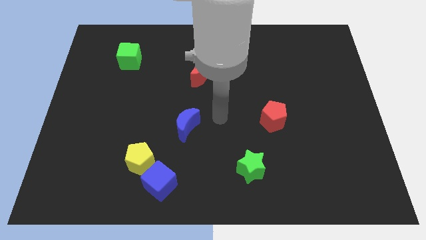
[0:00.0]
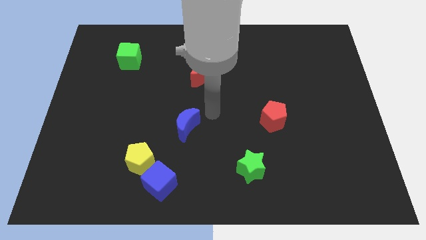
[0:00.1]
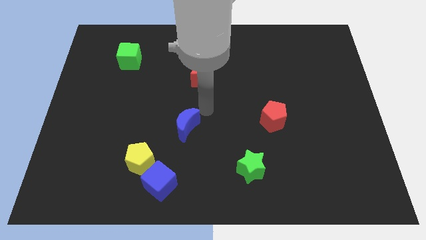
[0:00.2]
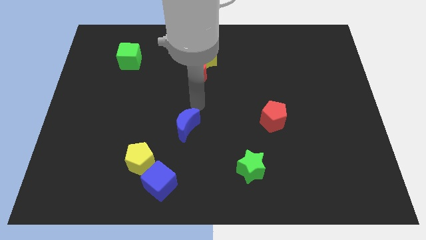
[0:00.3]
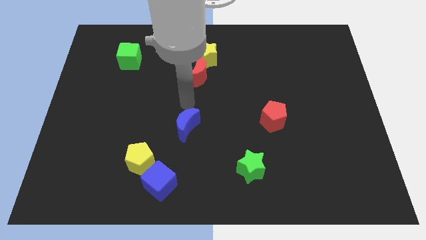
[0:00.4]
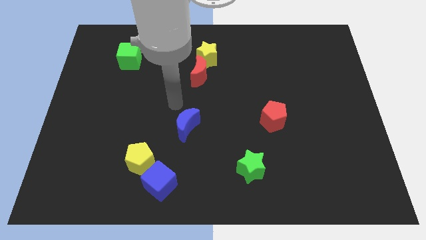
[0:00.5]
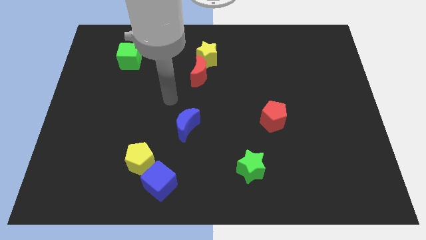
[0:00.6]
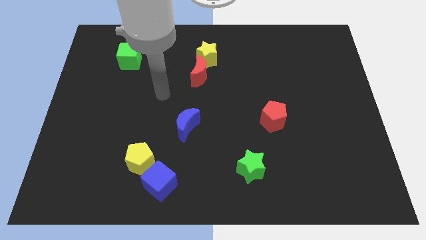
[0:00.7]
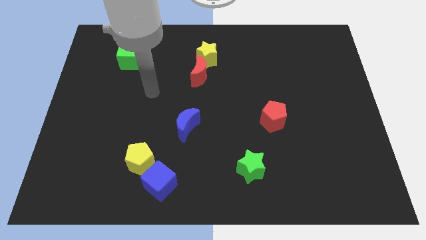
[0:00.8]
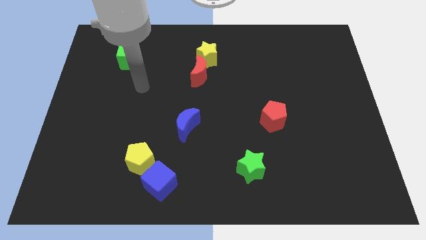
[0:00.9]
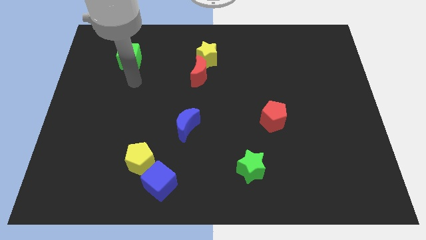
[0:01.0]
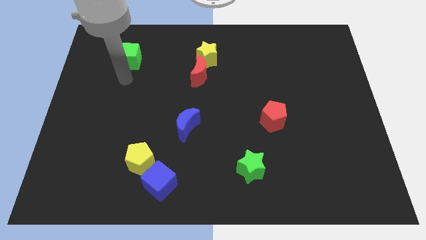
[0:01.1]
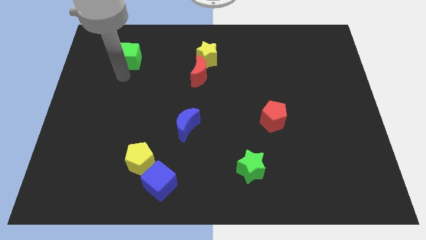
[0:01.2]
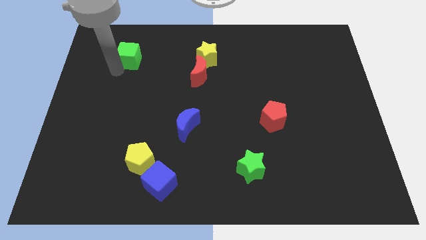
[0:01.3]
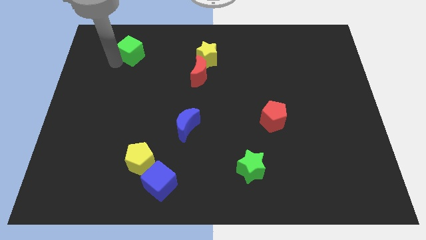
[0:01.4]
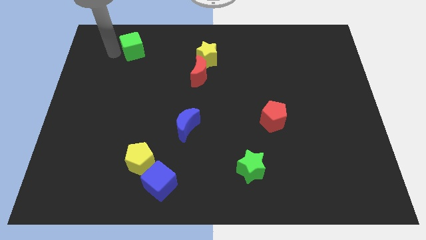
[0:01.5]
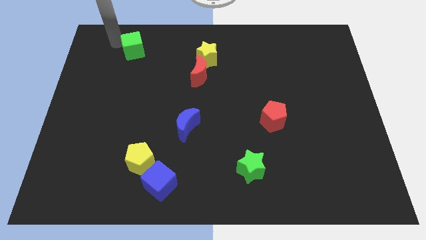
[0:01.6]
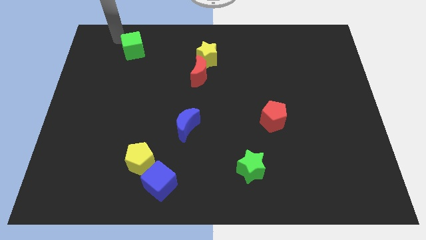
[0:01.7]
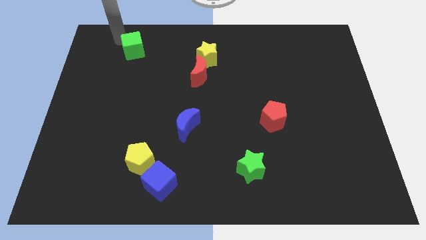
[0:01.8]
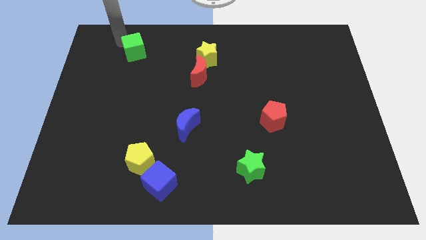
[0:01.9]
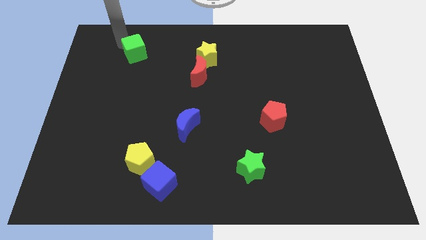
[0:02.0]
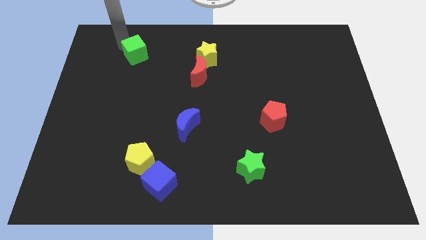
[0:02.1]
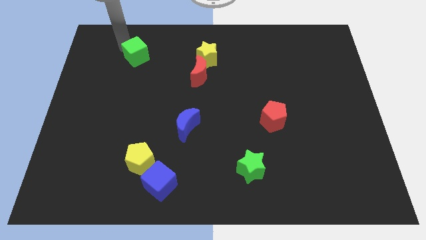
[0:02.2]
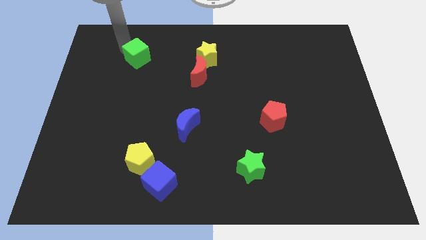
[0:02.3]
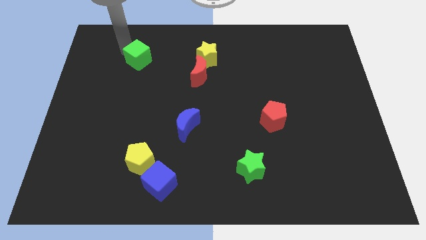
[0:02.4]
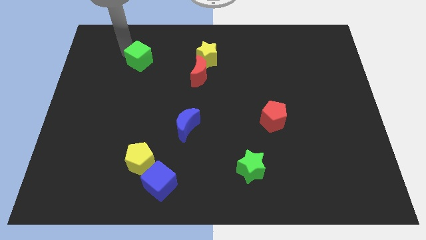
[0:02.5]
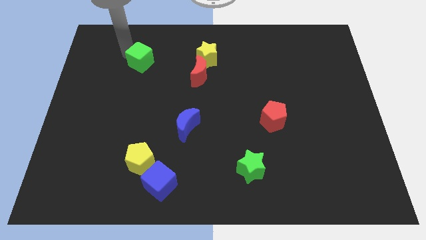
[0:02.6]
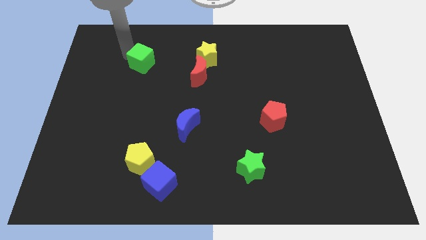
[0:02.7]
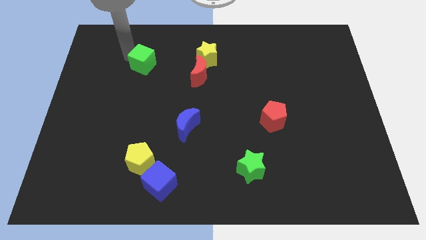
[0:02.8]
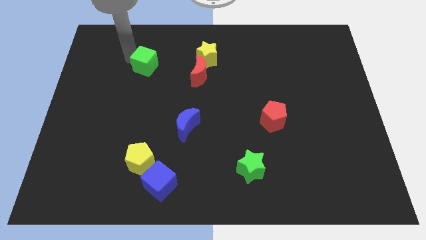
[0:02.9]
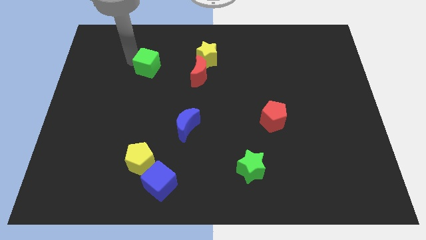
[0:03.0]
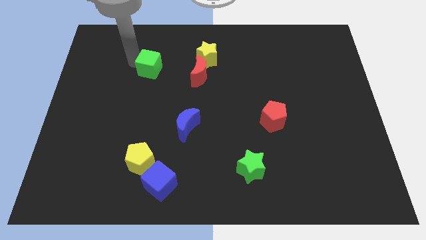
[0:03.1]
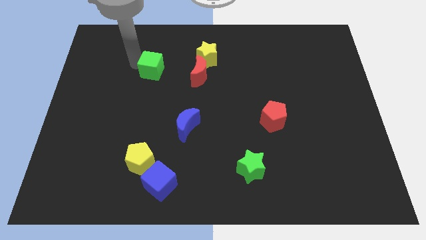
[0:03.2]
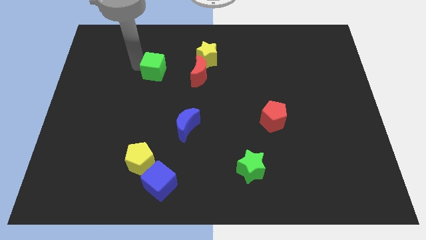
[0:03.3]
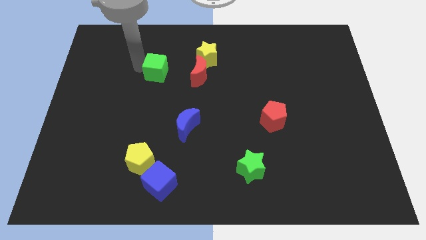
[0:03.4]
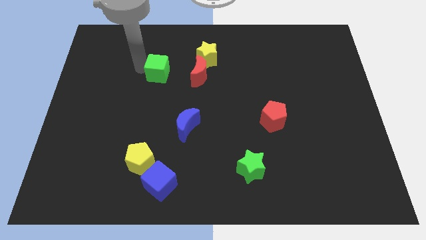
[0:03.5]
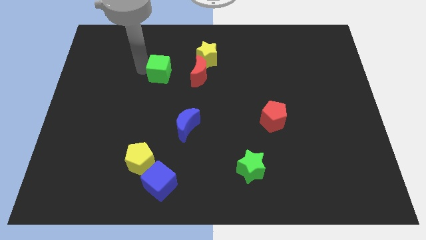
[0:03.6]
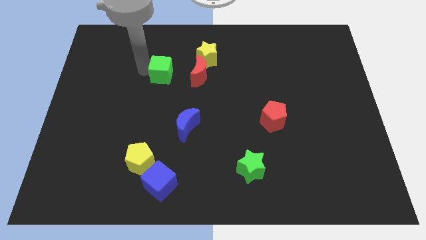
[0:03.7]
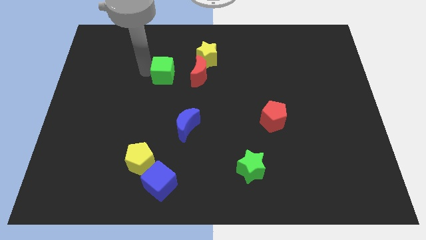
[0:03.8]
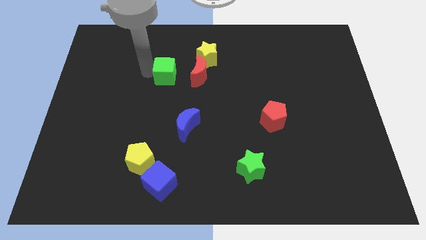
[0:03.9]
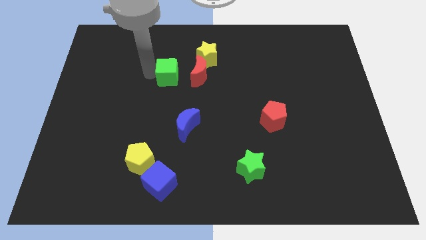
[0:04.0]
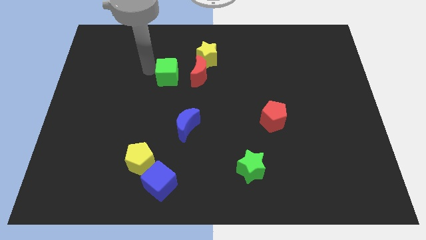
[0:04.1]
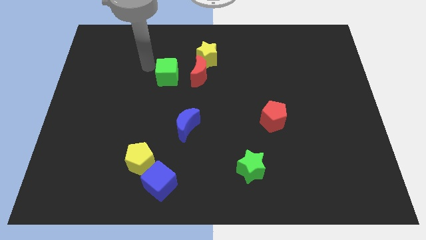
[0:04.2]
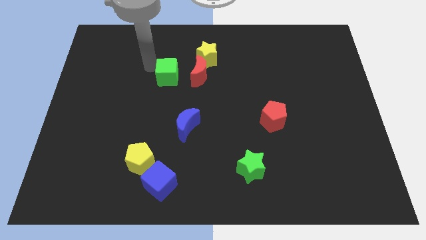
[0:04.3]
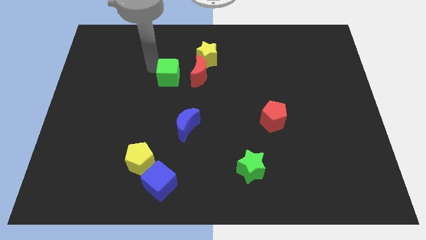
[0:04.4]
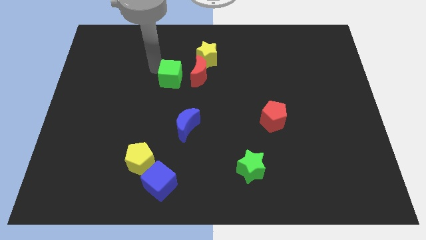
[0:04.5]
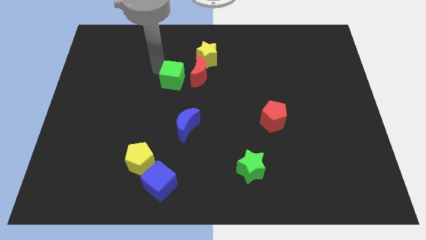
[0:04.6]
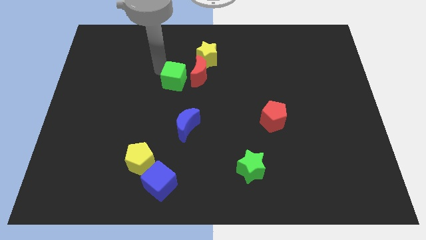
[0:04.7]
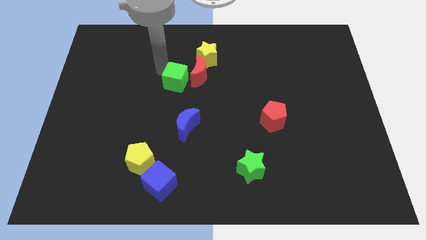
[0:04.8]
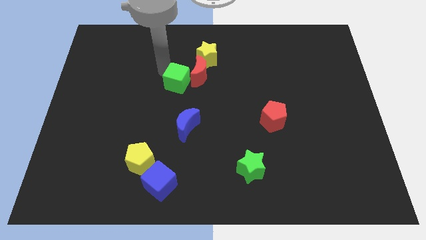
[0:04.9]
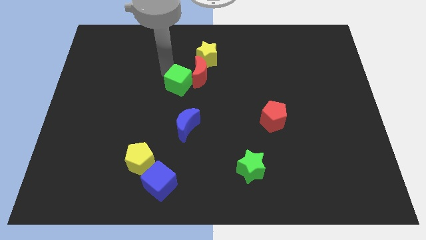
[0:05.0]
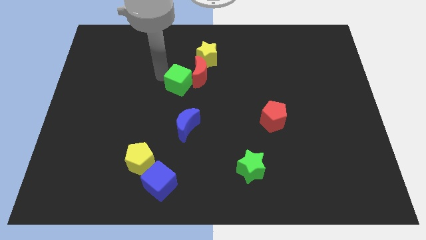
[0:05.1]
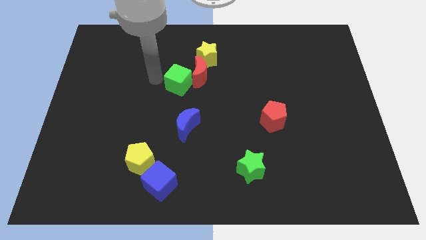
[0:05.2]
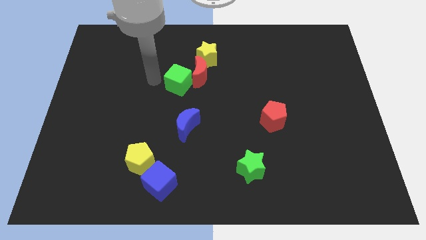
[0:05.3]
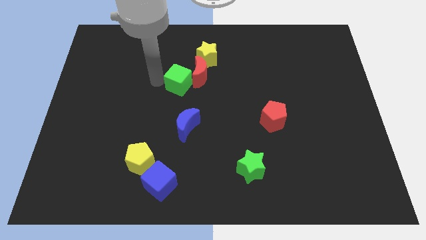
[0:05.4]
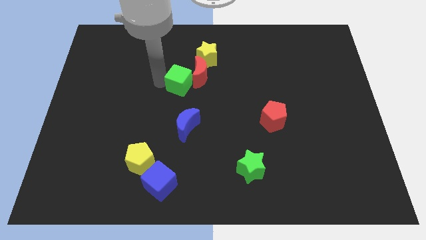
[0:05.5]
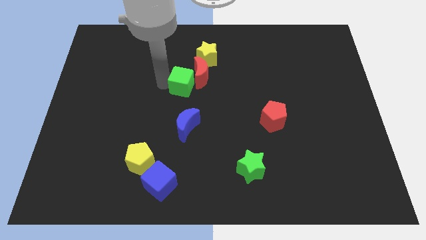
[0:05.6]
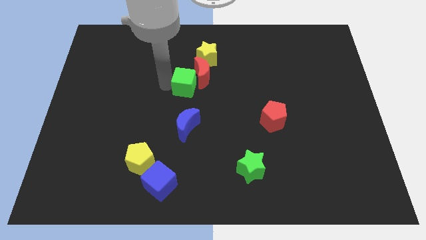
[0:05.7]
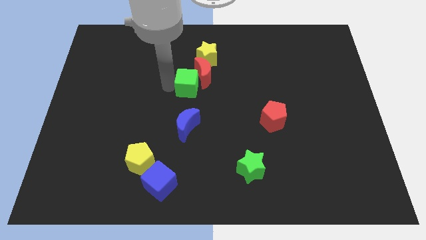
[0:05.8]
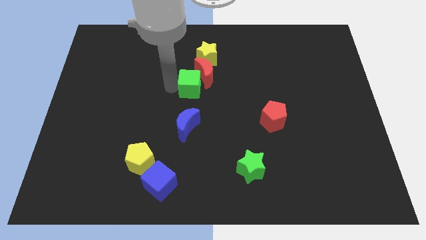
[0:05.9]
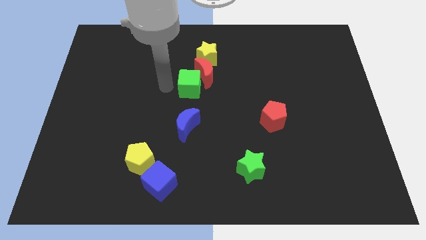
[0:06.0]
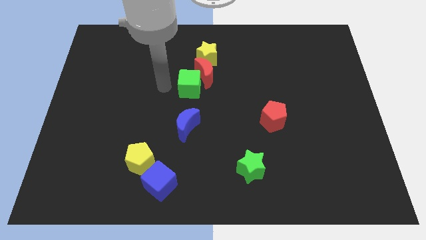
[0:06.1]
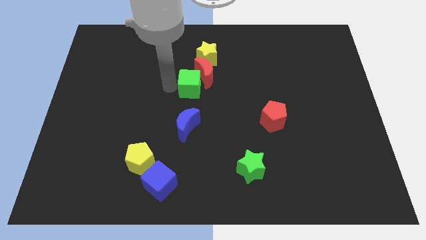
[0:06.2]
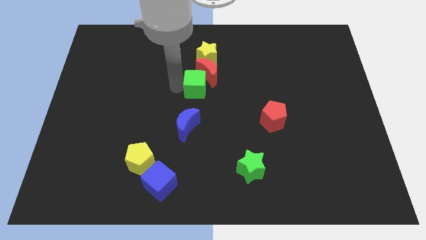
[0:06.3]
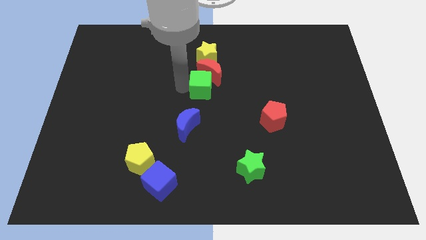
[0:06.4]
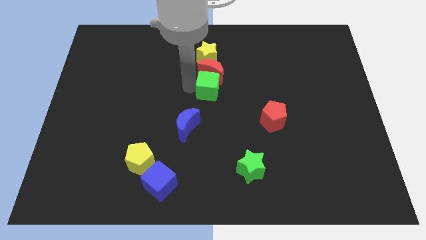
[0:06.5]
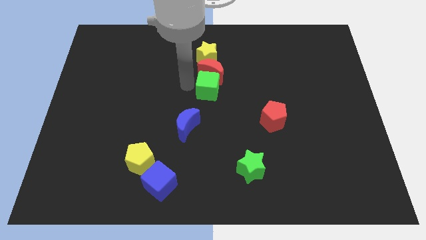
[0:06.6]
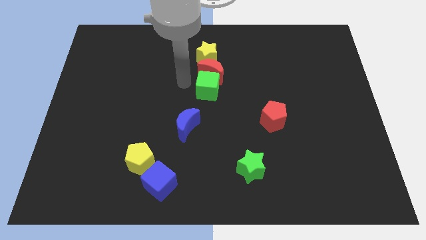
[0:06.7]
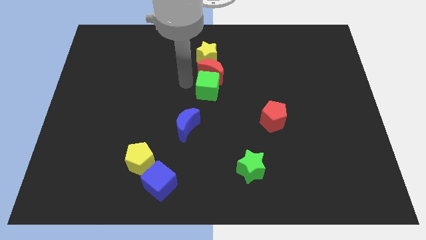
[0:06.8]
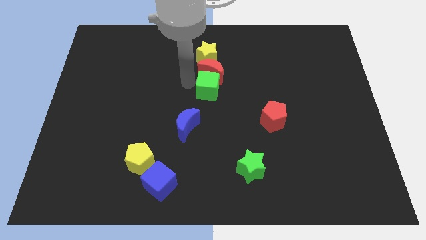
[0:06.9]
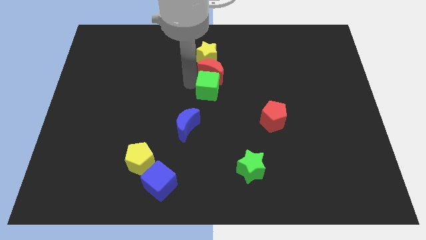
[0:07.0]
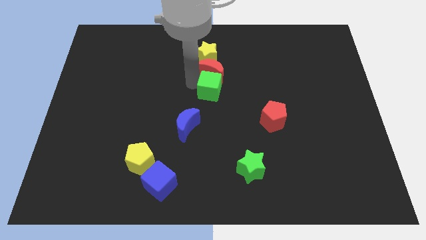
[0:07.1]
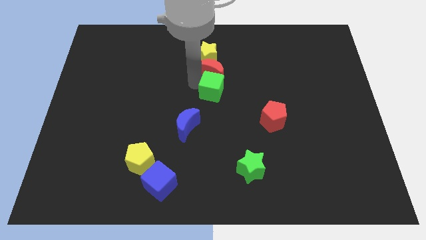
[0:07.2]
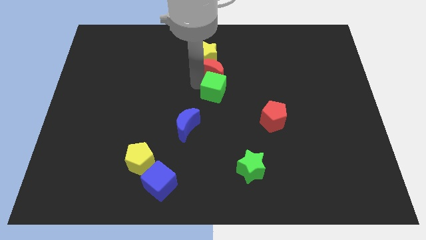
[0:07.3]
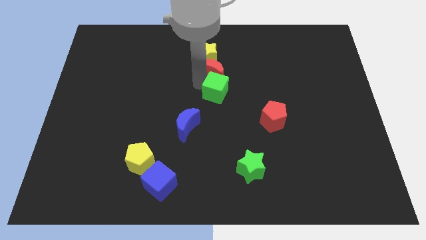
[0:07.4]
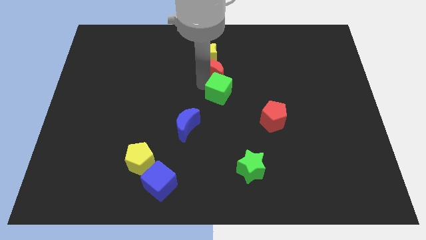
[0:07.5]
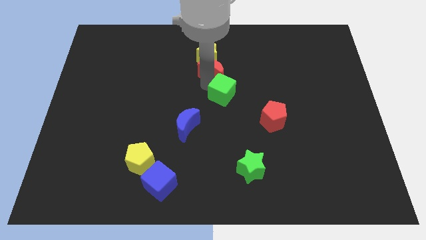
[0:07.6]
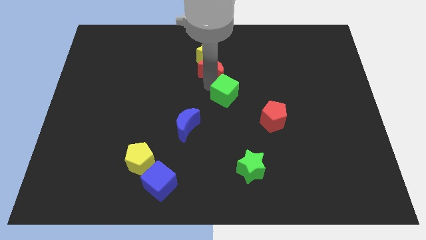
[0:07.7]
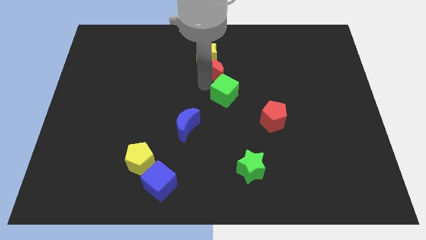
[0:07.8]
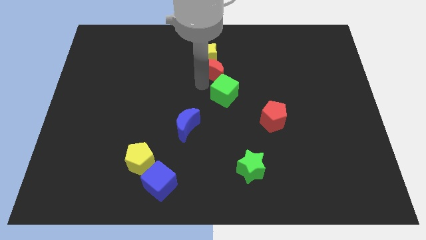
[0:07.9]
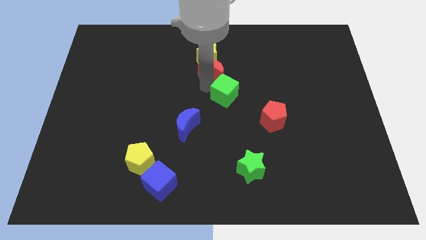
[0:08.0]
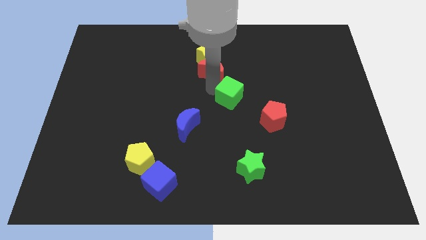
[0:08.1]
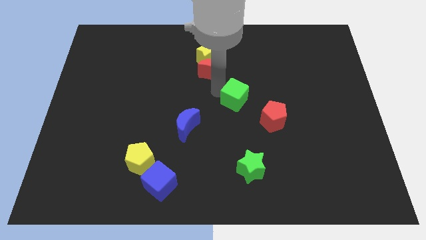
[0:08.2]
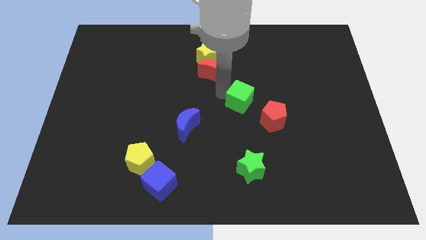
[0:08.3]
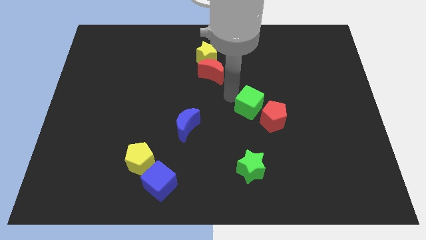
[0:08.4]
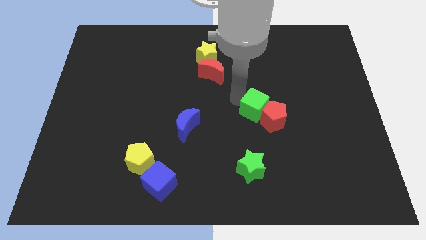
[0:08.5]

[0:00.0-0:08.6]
slide the green cube next to the red pentagon
